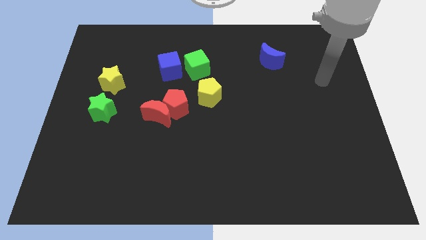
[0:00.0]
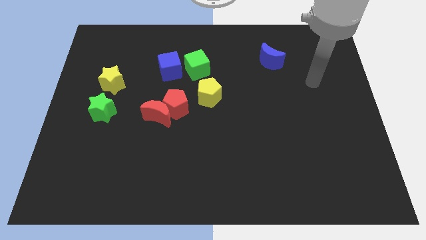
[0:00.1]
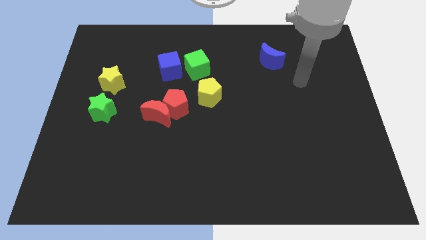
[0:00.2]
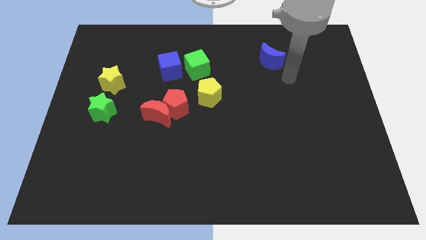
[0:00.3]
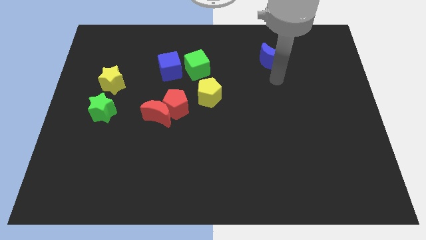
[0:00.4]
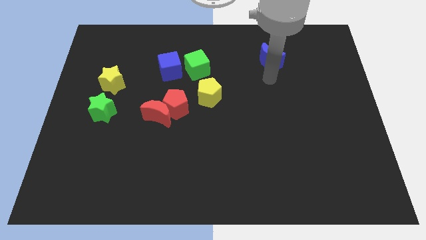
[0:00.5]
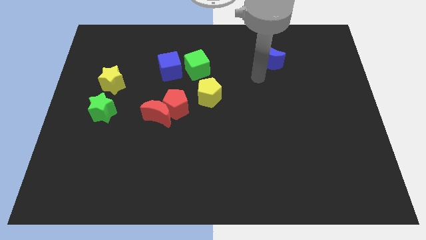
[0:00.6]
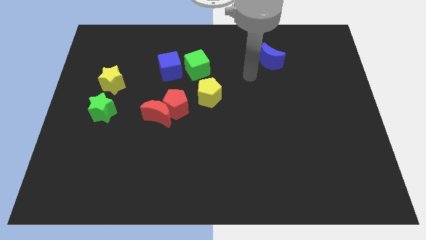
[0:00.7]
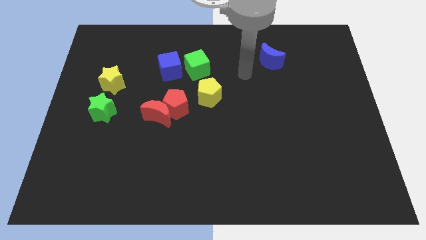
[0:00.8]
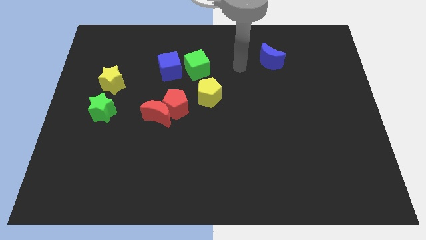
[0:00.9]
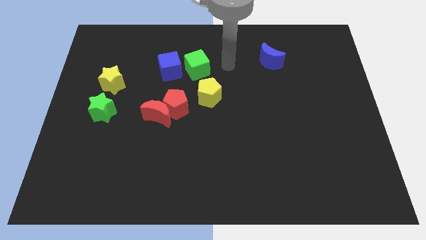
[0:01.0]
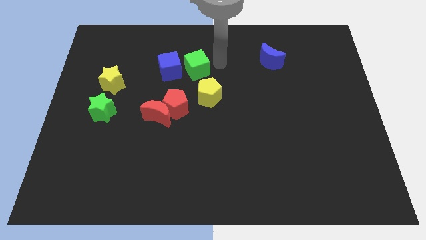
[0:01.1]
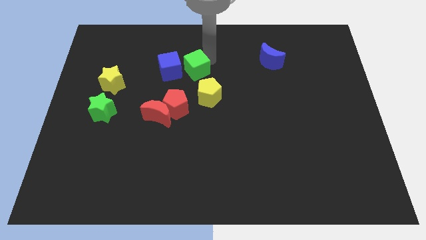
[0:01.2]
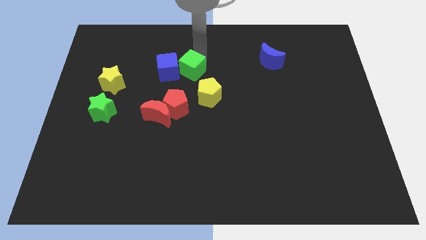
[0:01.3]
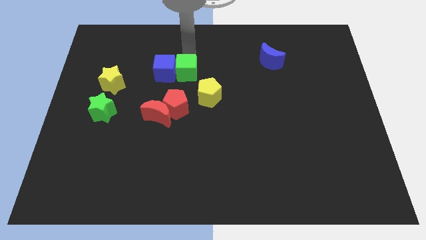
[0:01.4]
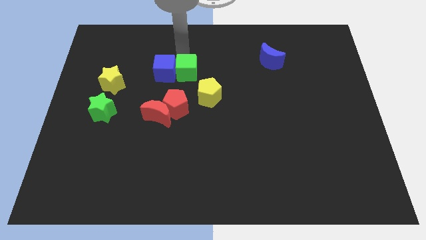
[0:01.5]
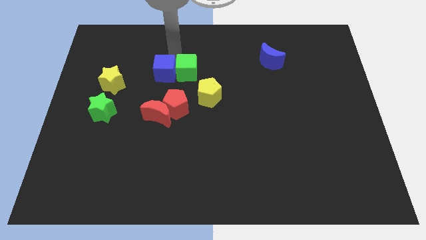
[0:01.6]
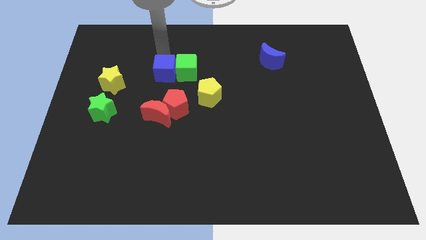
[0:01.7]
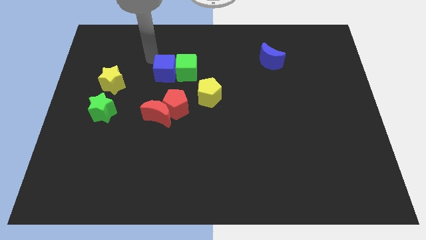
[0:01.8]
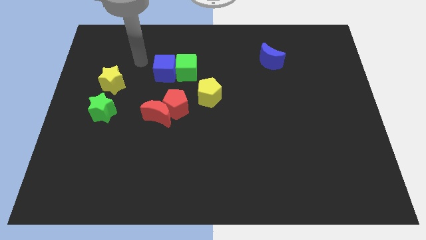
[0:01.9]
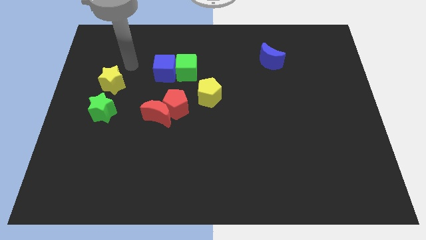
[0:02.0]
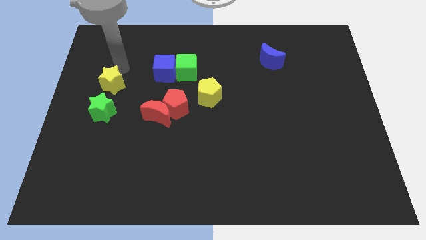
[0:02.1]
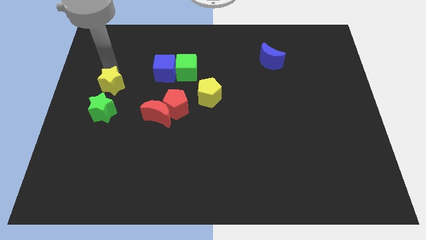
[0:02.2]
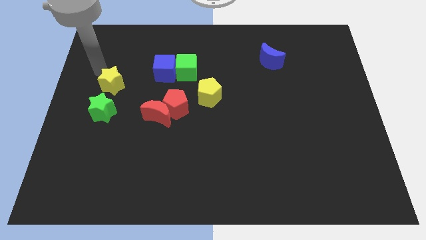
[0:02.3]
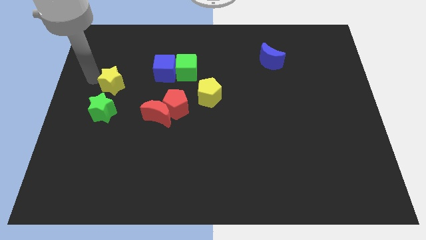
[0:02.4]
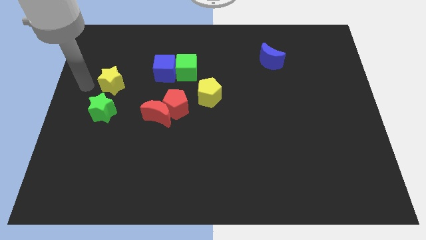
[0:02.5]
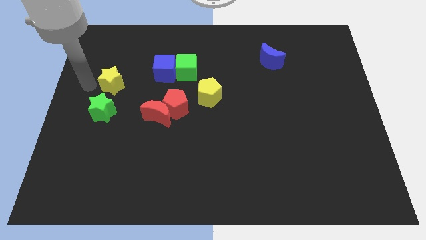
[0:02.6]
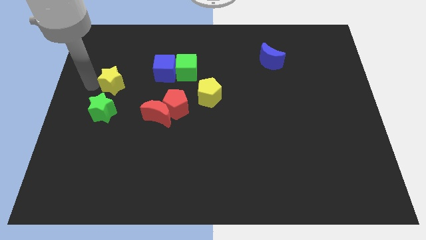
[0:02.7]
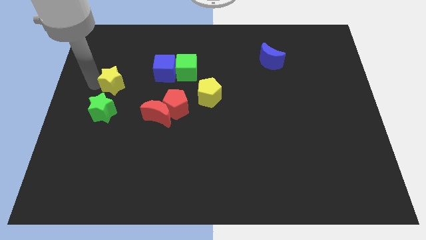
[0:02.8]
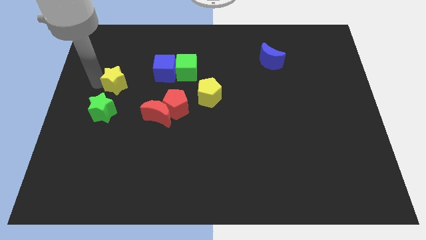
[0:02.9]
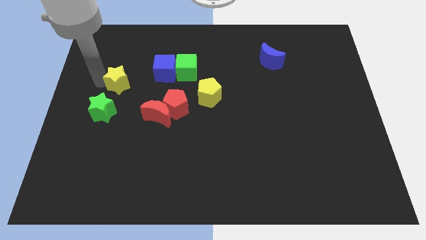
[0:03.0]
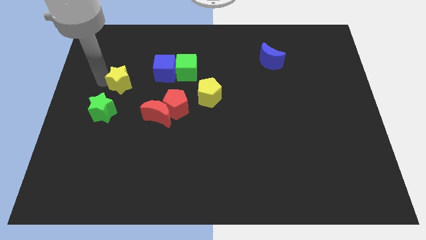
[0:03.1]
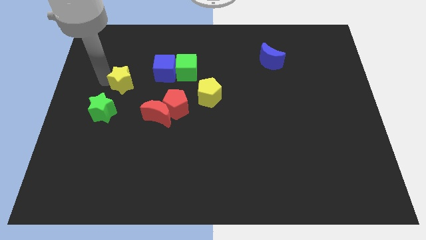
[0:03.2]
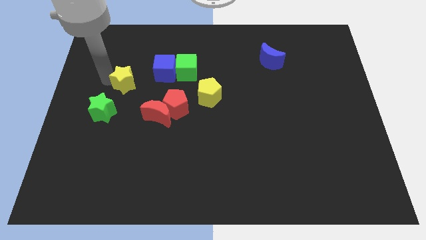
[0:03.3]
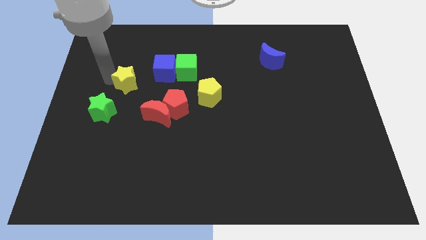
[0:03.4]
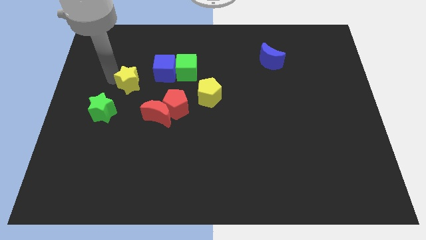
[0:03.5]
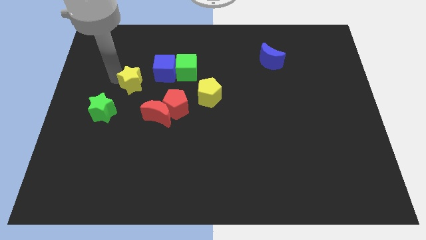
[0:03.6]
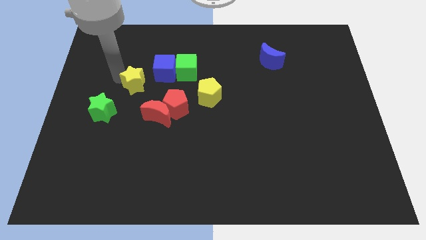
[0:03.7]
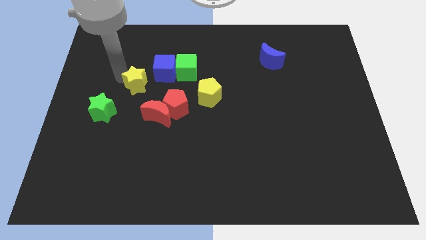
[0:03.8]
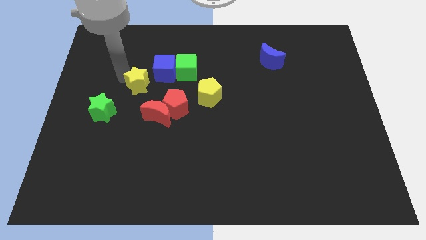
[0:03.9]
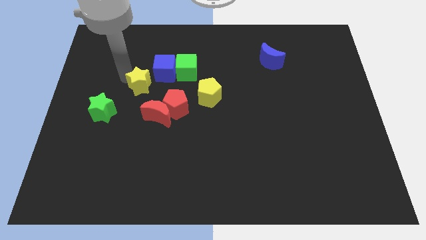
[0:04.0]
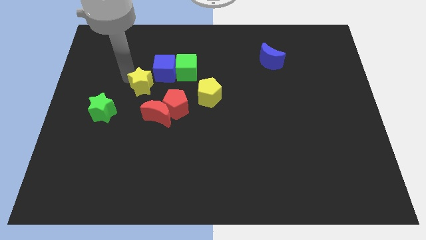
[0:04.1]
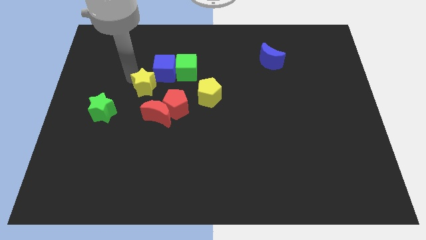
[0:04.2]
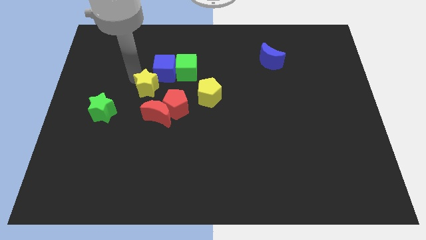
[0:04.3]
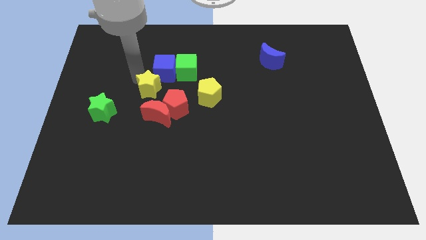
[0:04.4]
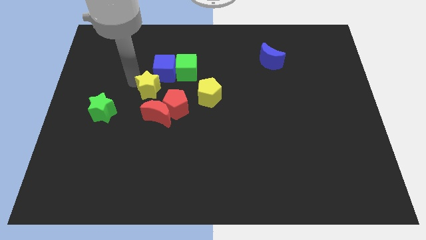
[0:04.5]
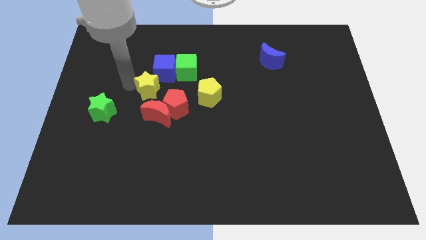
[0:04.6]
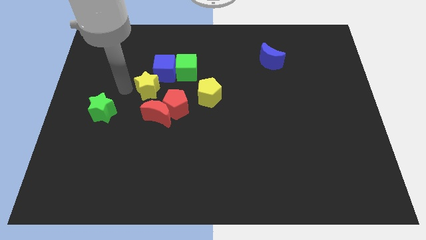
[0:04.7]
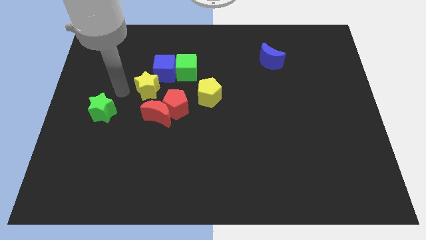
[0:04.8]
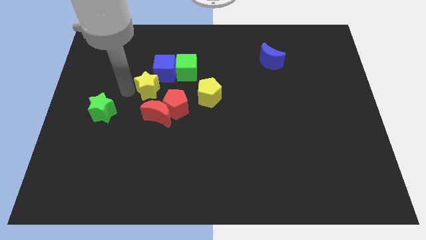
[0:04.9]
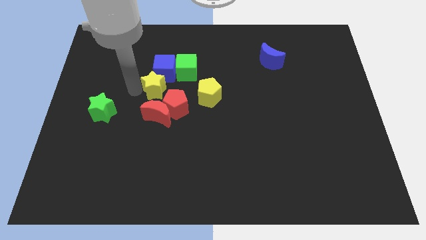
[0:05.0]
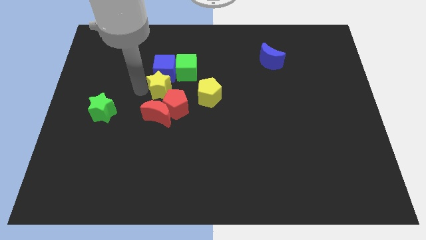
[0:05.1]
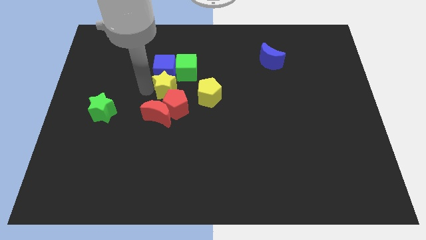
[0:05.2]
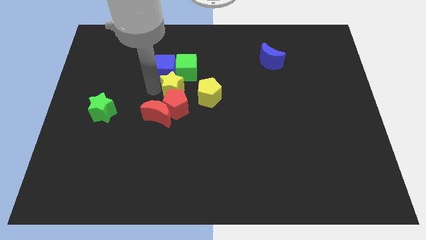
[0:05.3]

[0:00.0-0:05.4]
slide the yellow star diagonally up and to the right of the red pentagon

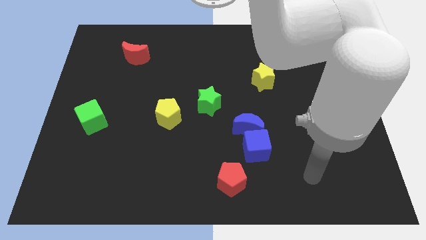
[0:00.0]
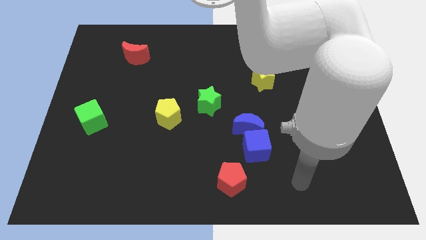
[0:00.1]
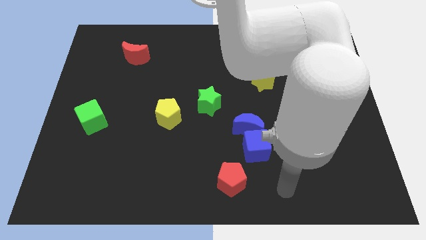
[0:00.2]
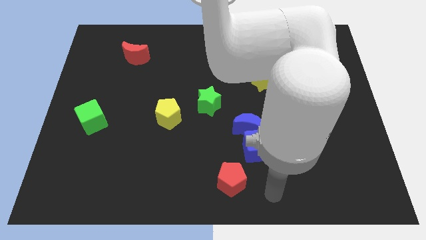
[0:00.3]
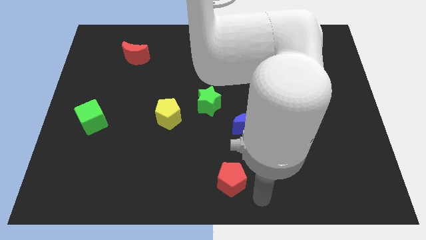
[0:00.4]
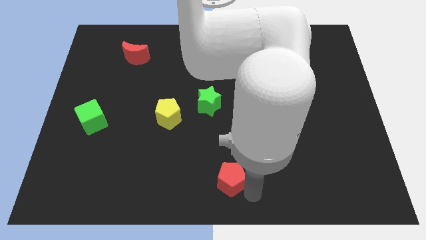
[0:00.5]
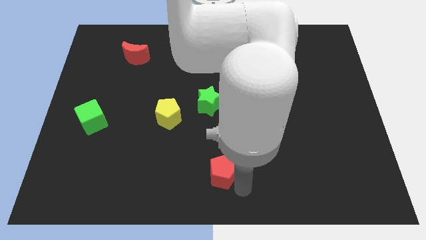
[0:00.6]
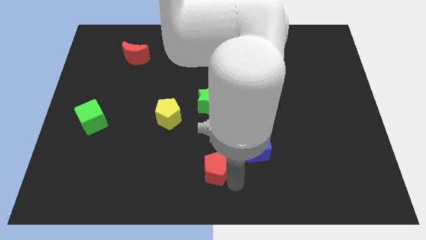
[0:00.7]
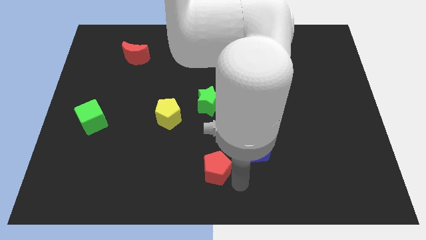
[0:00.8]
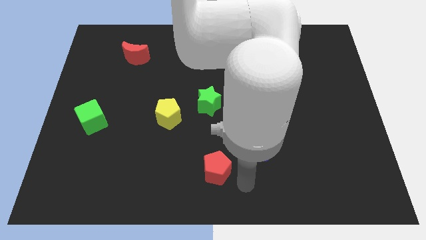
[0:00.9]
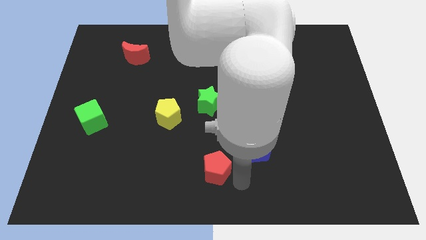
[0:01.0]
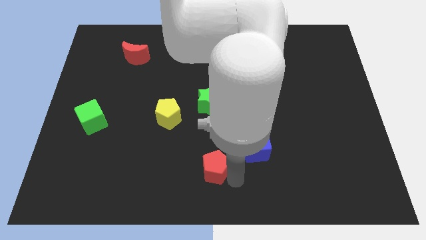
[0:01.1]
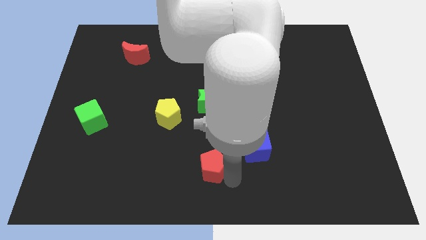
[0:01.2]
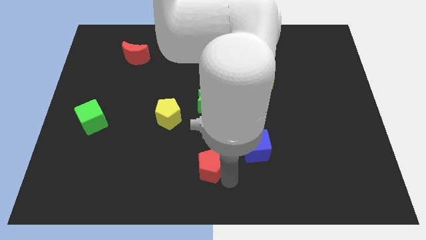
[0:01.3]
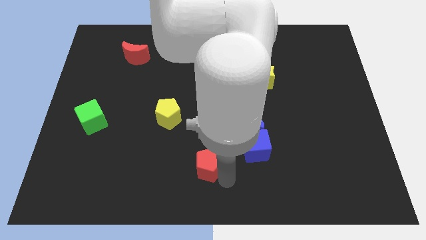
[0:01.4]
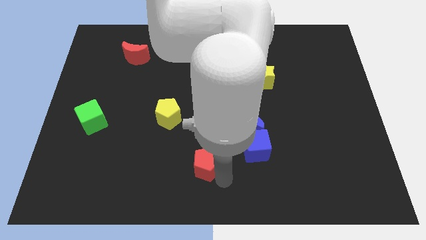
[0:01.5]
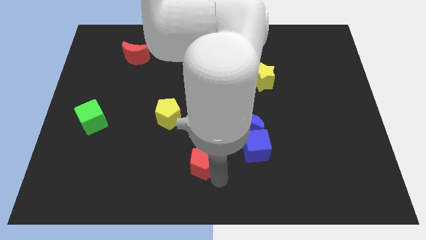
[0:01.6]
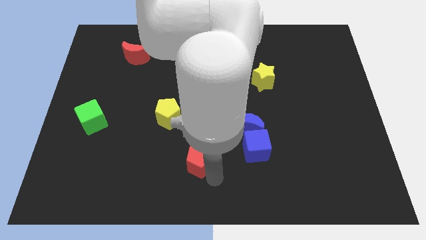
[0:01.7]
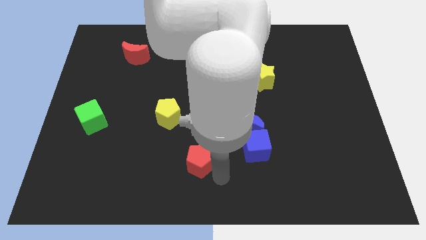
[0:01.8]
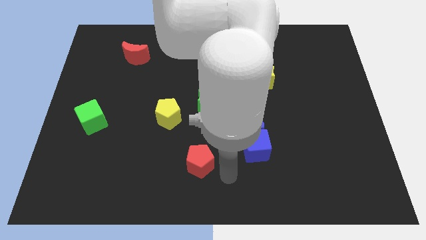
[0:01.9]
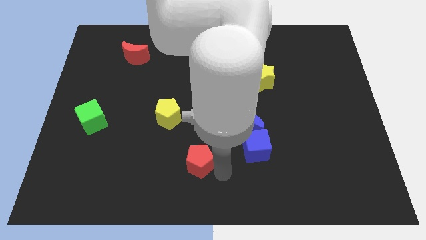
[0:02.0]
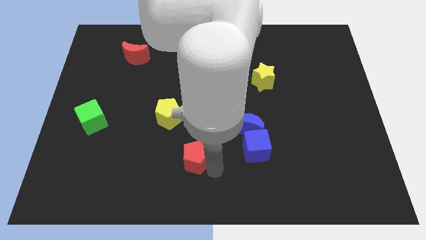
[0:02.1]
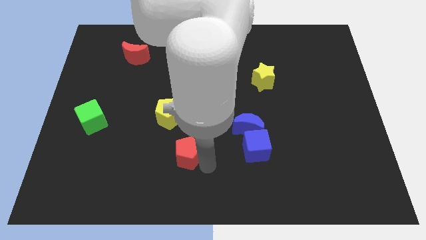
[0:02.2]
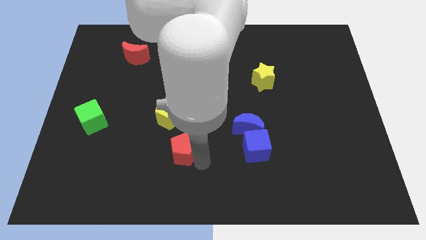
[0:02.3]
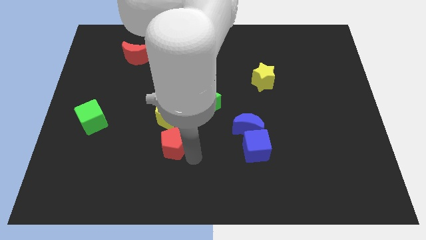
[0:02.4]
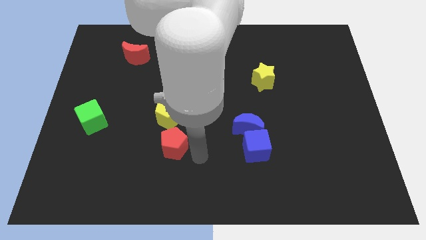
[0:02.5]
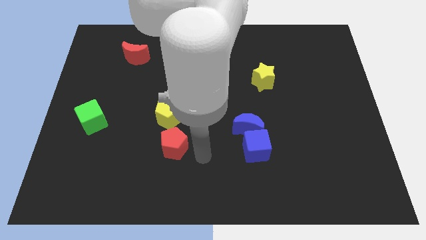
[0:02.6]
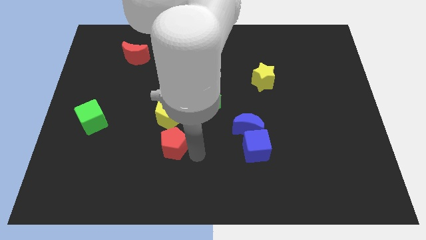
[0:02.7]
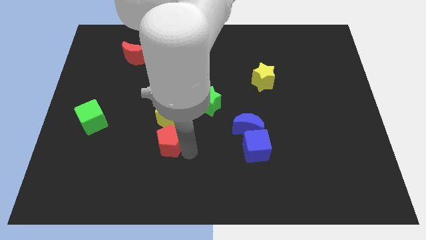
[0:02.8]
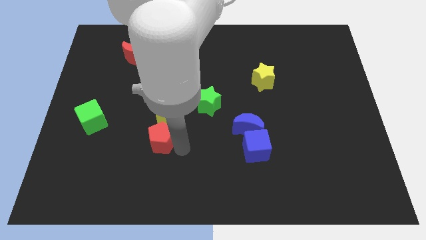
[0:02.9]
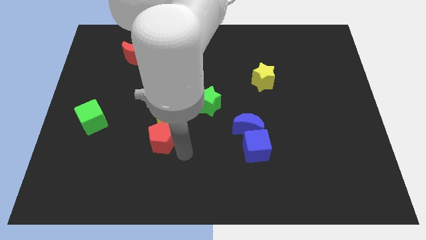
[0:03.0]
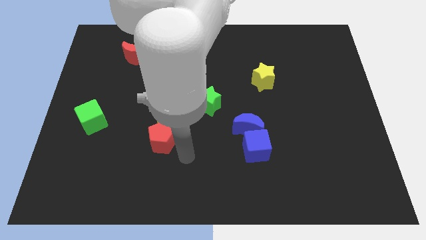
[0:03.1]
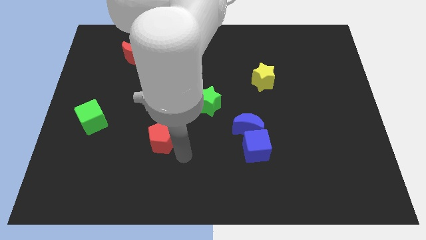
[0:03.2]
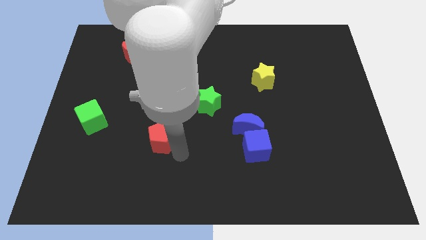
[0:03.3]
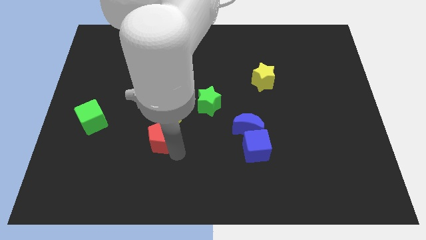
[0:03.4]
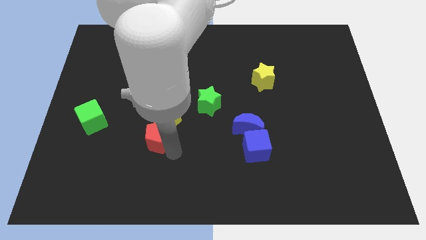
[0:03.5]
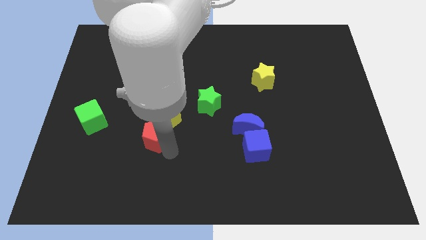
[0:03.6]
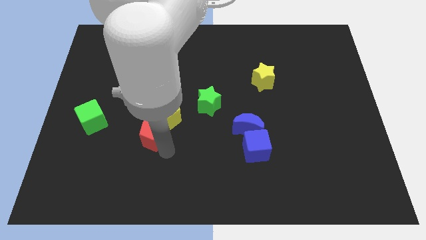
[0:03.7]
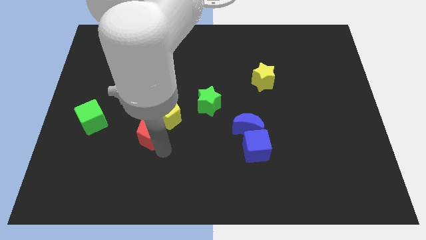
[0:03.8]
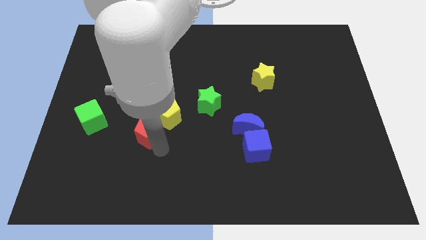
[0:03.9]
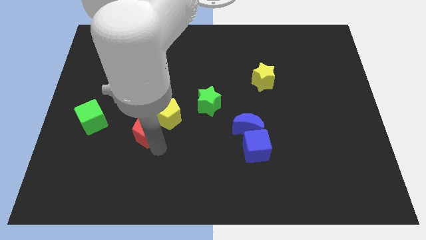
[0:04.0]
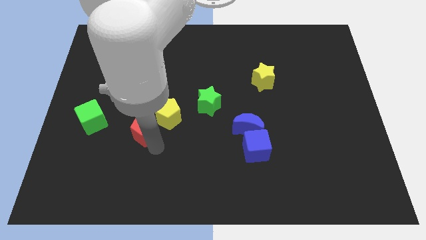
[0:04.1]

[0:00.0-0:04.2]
move the red pentagon just left of the yellow pentagon
